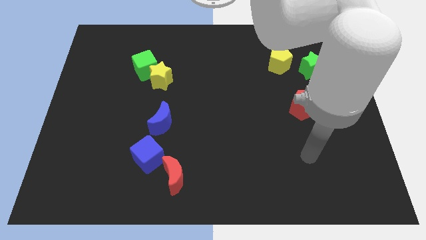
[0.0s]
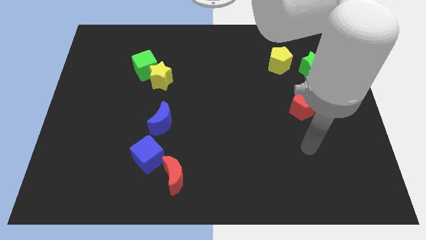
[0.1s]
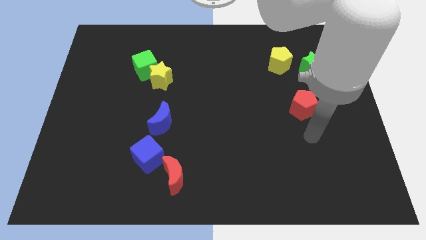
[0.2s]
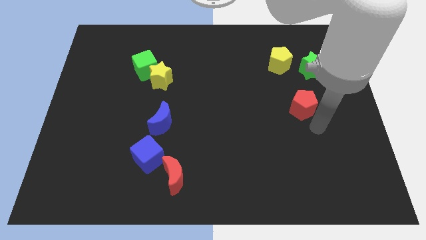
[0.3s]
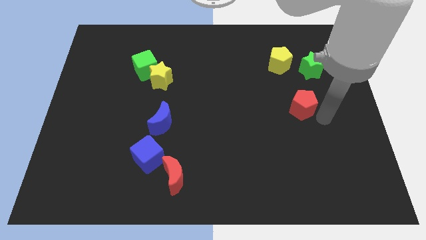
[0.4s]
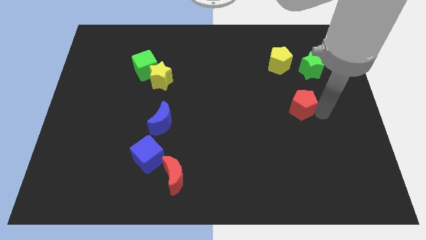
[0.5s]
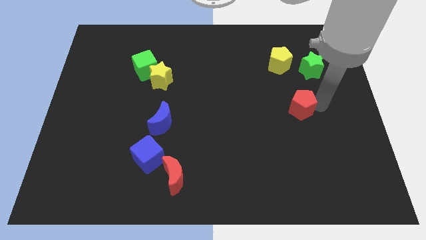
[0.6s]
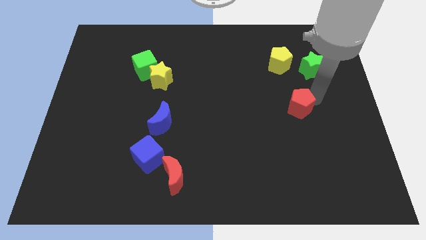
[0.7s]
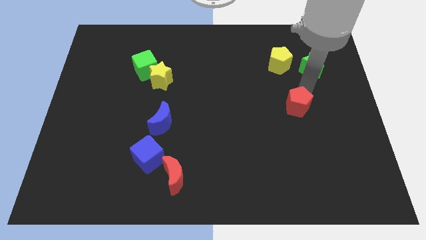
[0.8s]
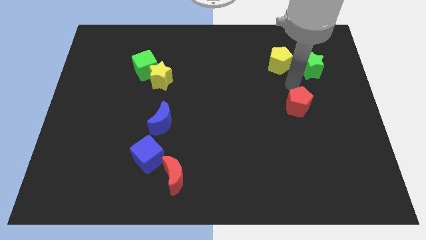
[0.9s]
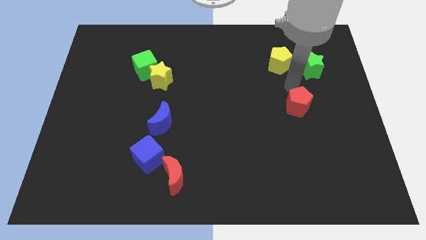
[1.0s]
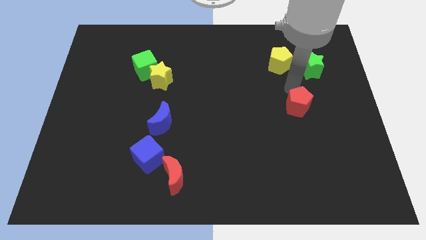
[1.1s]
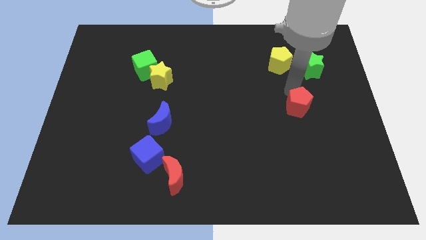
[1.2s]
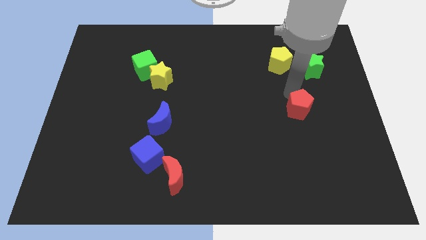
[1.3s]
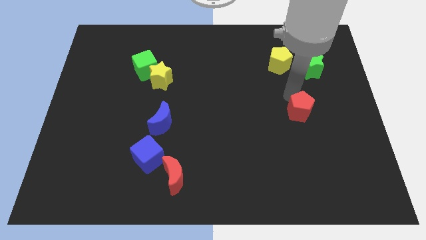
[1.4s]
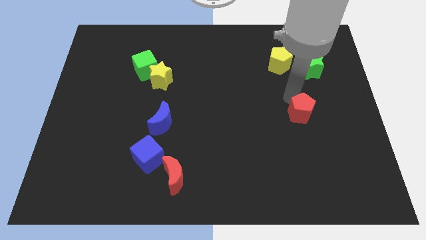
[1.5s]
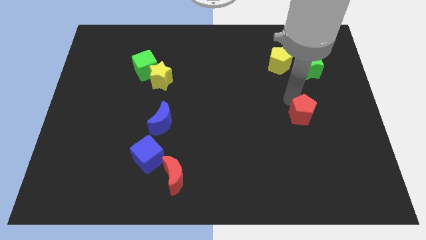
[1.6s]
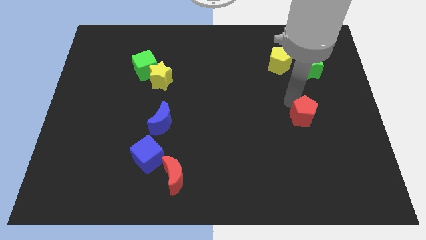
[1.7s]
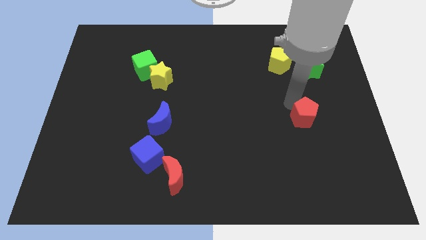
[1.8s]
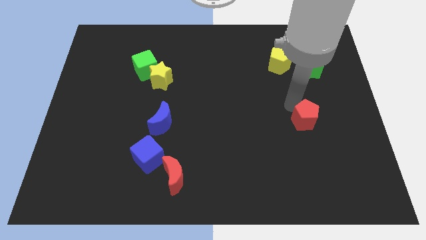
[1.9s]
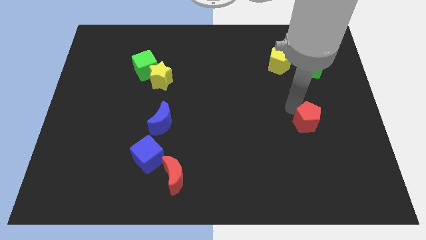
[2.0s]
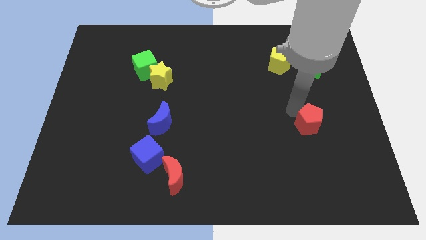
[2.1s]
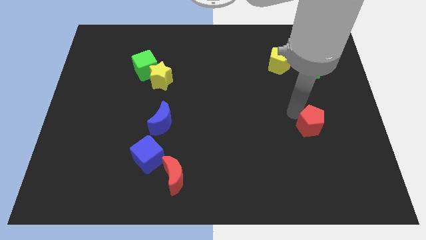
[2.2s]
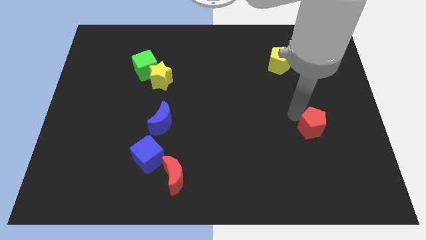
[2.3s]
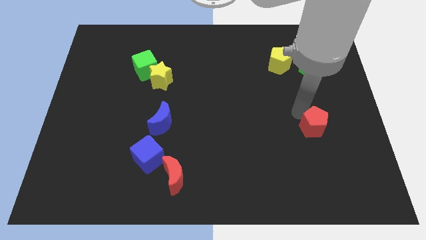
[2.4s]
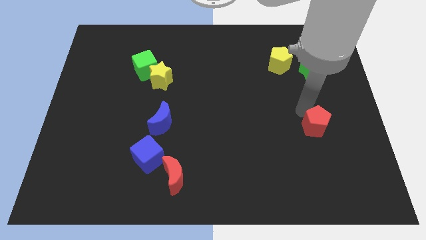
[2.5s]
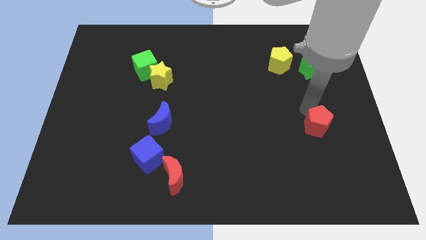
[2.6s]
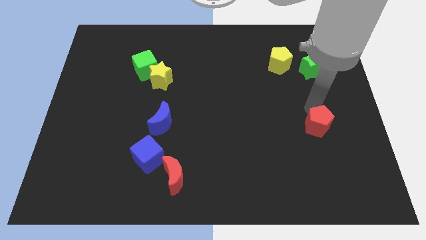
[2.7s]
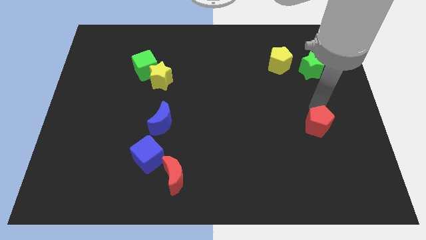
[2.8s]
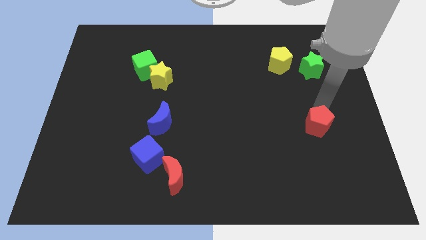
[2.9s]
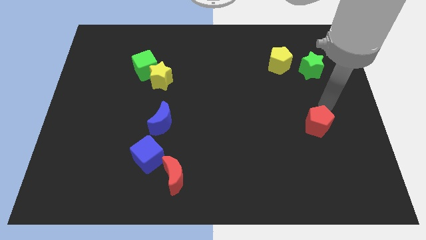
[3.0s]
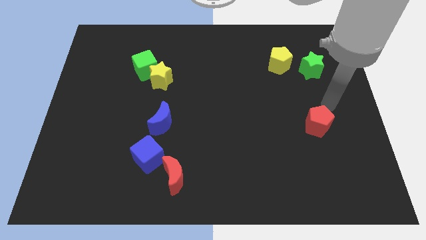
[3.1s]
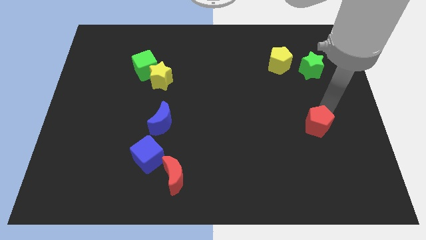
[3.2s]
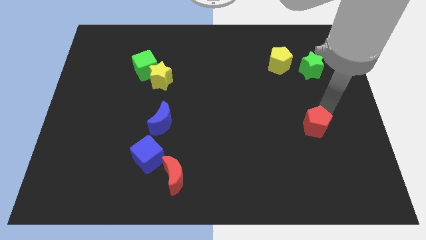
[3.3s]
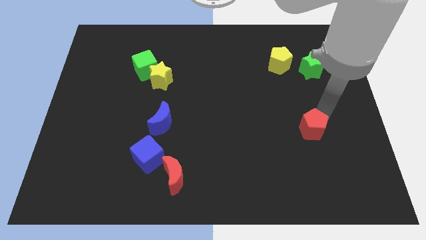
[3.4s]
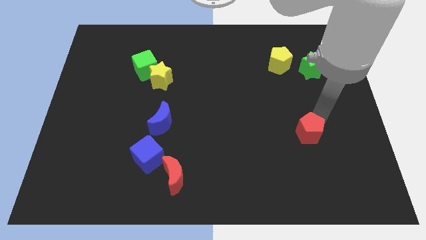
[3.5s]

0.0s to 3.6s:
slide the red pentagon downwards slightly

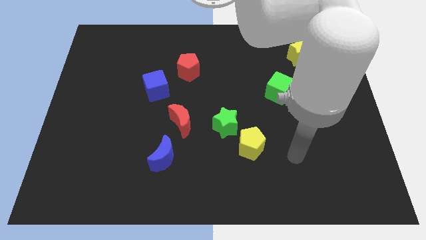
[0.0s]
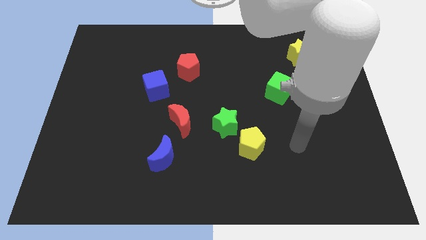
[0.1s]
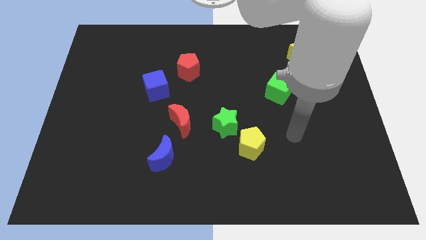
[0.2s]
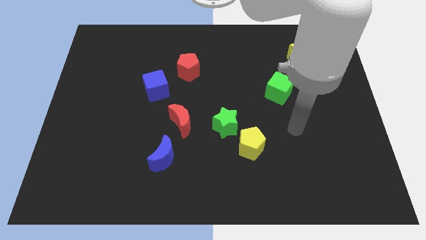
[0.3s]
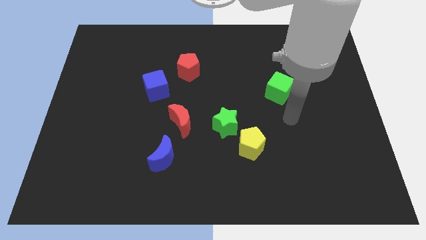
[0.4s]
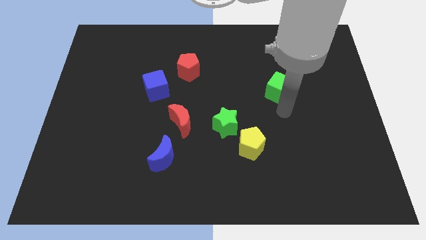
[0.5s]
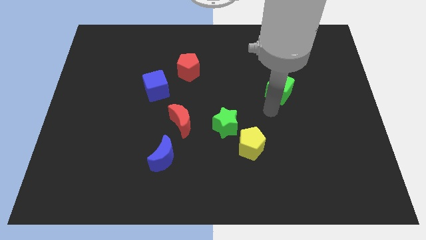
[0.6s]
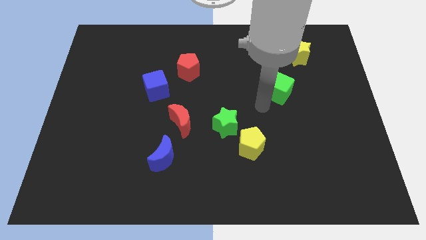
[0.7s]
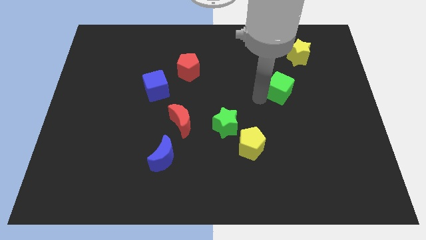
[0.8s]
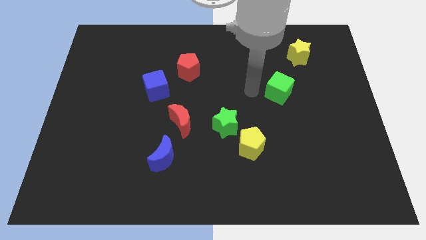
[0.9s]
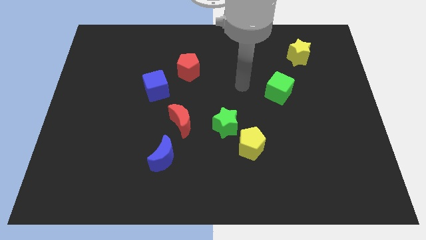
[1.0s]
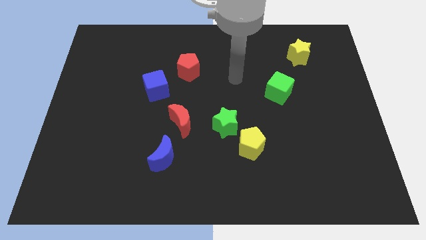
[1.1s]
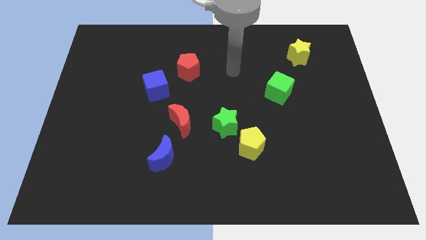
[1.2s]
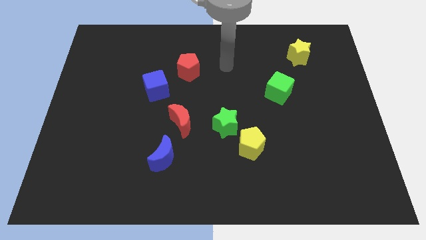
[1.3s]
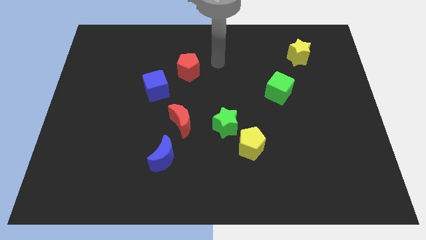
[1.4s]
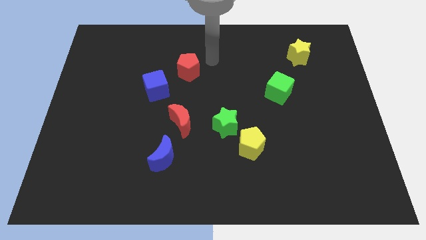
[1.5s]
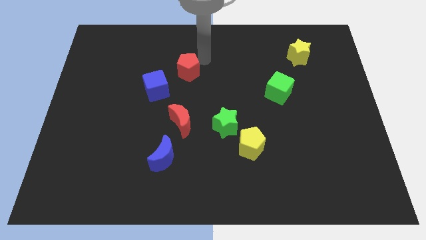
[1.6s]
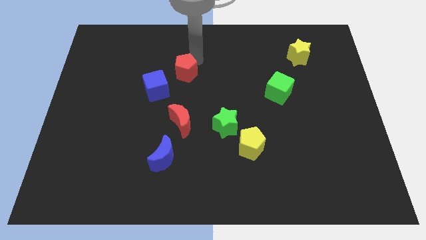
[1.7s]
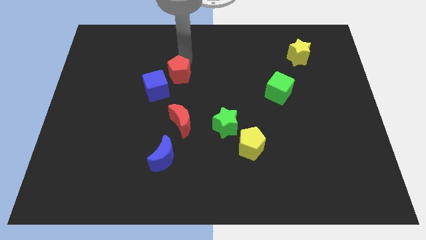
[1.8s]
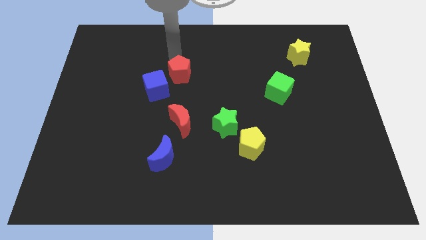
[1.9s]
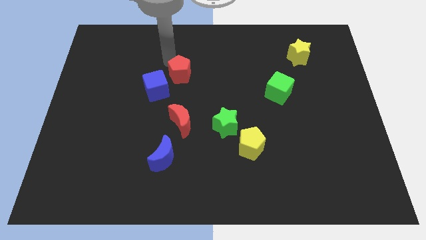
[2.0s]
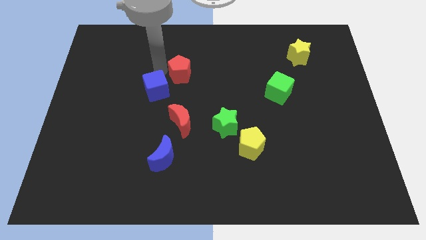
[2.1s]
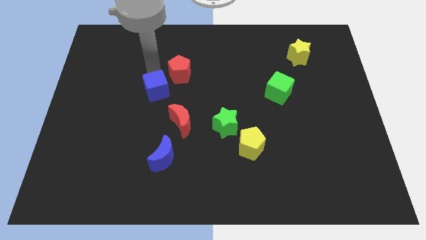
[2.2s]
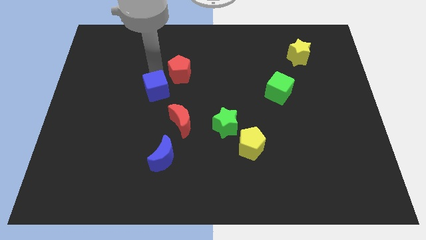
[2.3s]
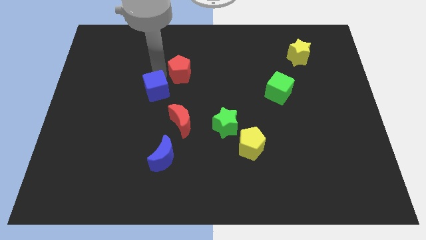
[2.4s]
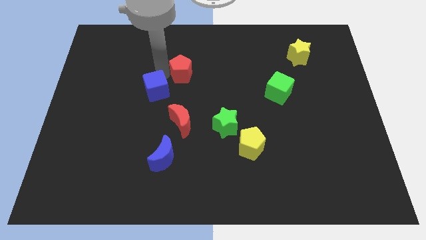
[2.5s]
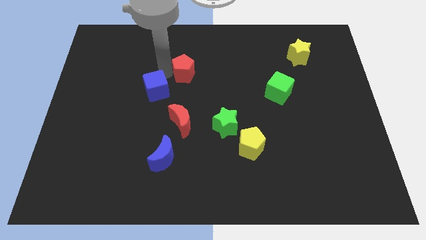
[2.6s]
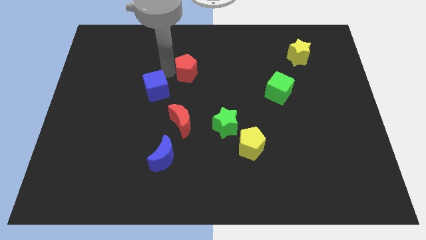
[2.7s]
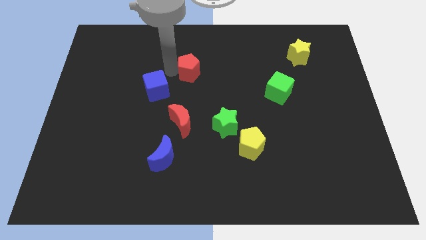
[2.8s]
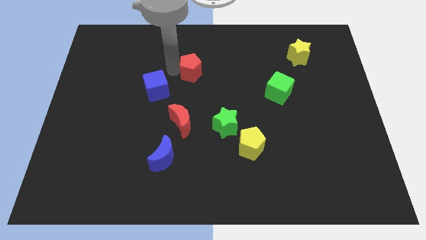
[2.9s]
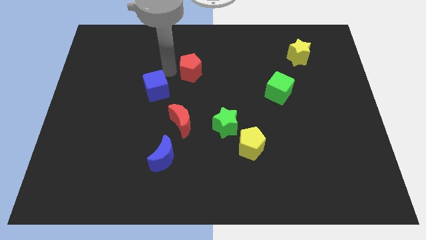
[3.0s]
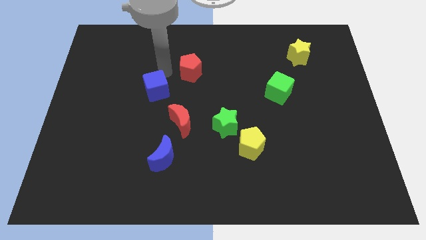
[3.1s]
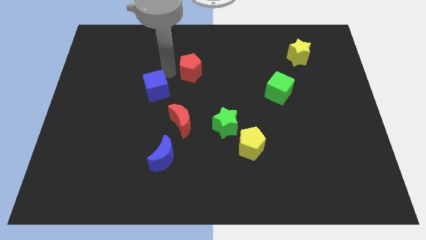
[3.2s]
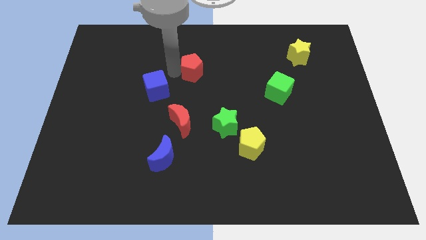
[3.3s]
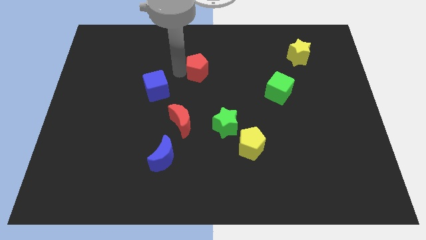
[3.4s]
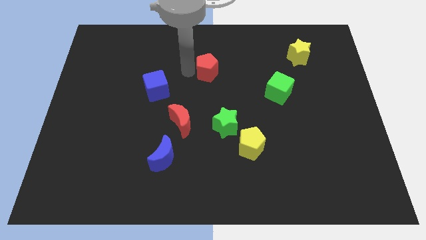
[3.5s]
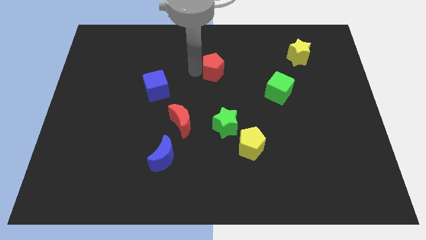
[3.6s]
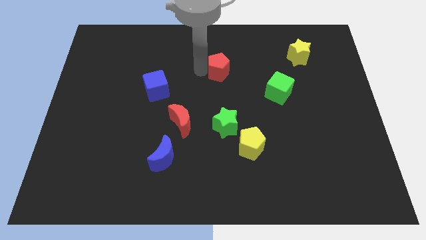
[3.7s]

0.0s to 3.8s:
move the red pentagon to the right a little

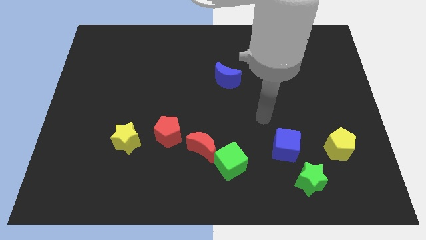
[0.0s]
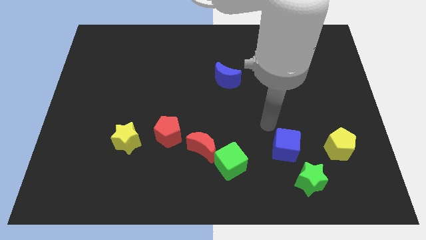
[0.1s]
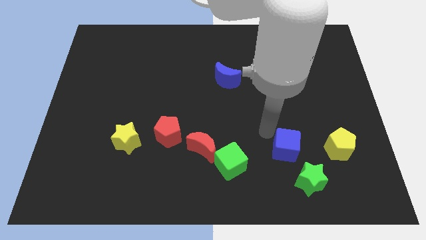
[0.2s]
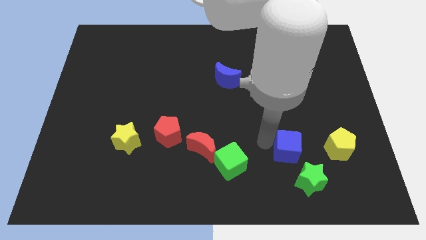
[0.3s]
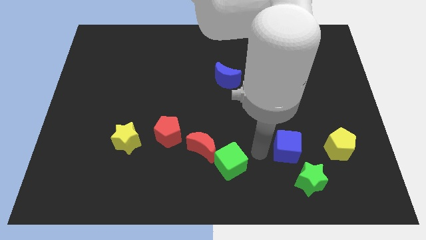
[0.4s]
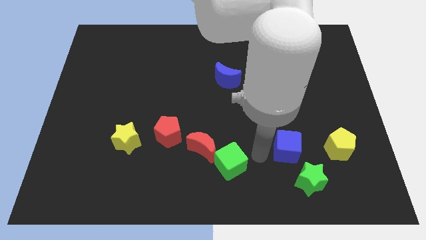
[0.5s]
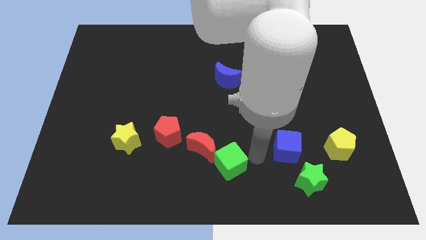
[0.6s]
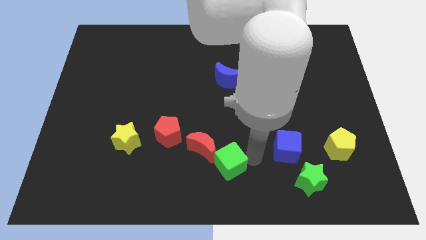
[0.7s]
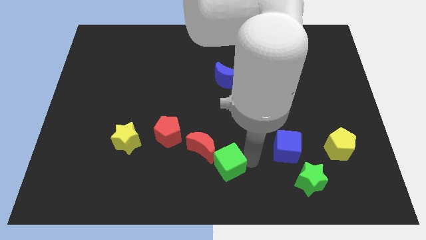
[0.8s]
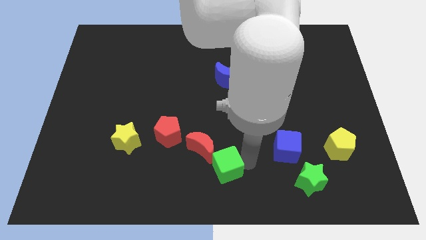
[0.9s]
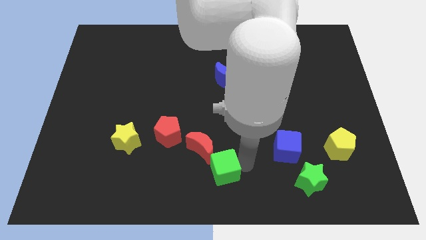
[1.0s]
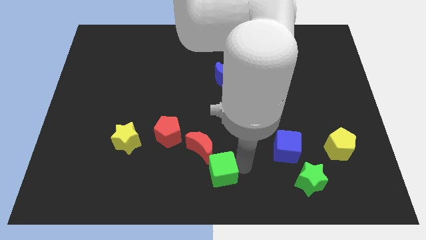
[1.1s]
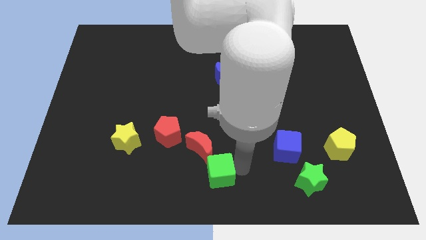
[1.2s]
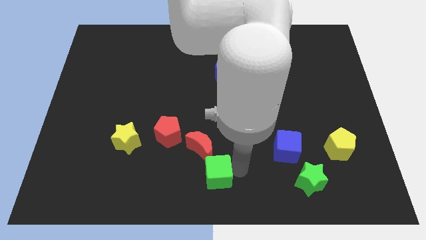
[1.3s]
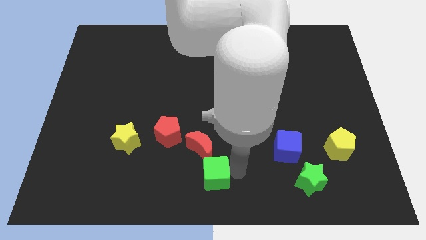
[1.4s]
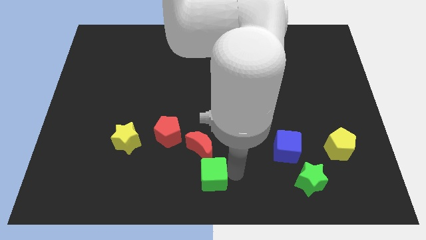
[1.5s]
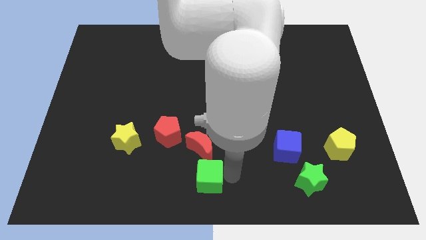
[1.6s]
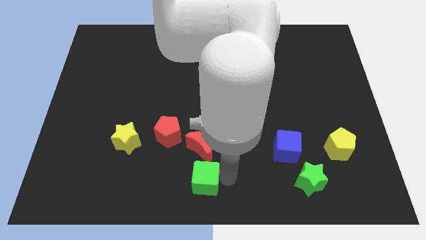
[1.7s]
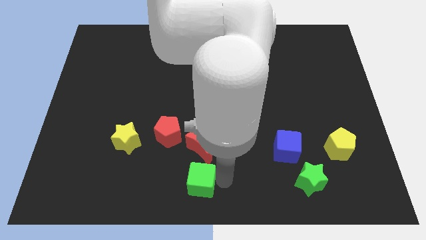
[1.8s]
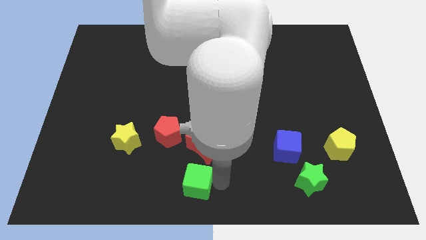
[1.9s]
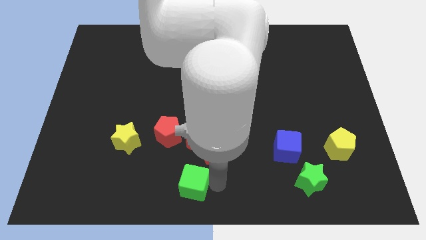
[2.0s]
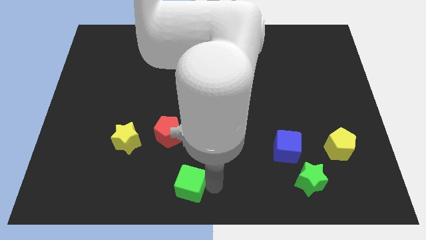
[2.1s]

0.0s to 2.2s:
push the green cube left a bit
